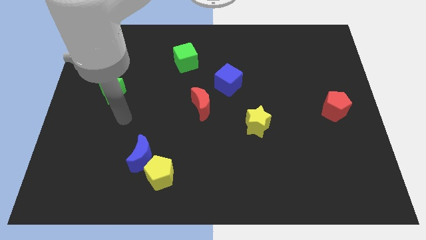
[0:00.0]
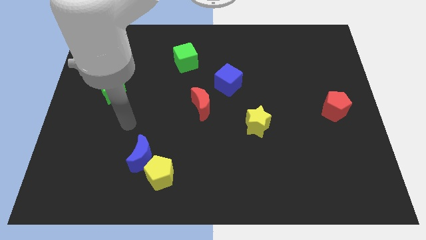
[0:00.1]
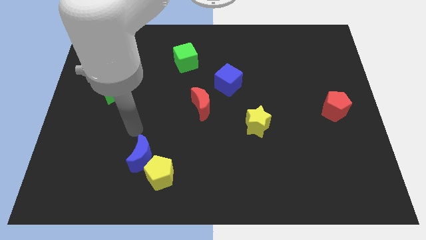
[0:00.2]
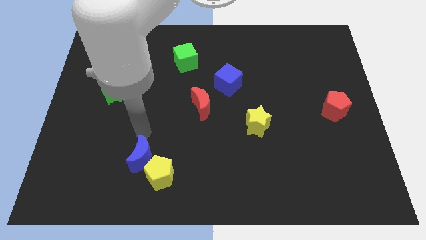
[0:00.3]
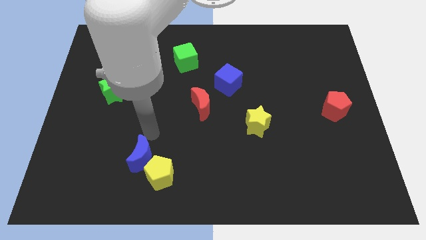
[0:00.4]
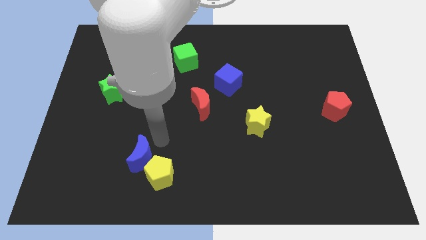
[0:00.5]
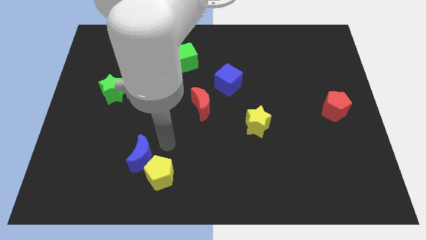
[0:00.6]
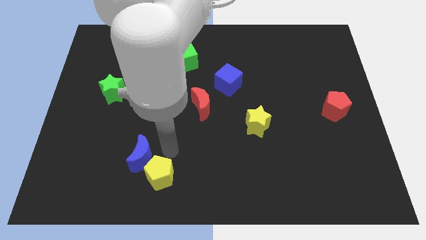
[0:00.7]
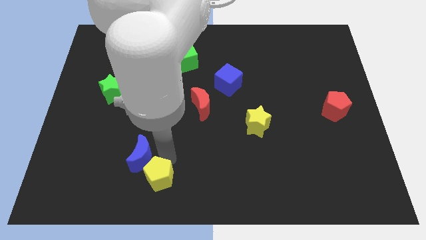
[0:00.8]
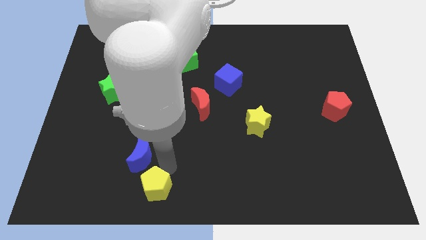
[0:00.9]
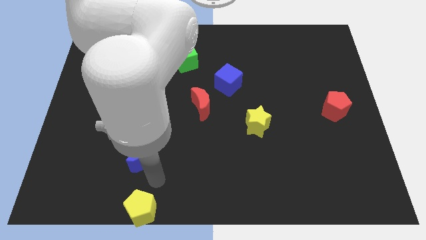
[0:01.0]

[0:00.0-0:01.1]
separate the blue moon from the yellow pentagon

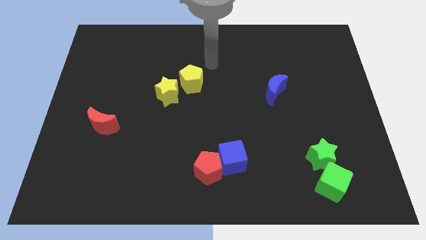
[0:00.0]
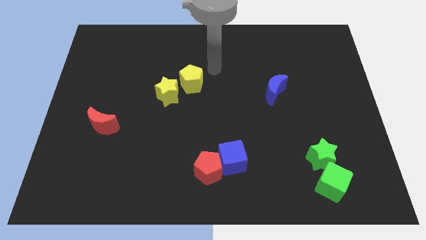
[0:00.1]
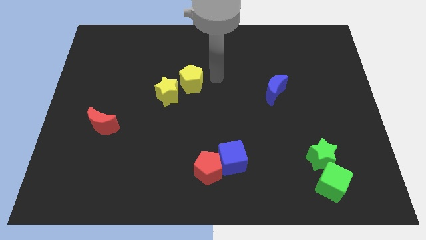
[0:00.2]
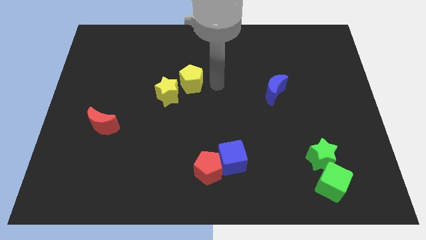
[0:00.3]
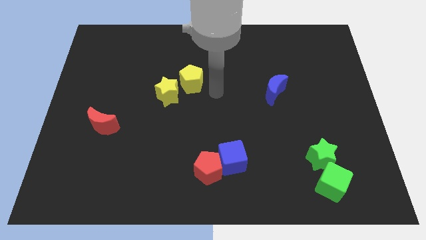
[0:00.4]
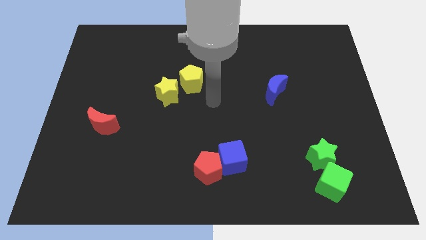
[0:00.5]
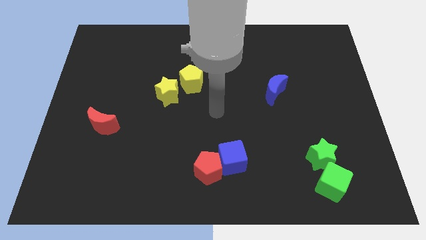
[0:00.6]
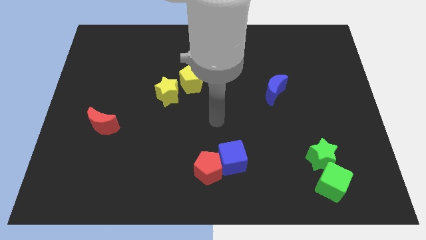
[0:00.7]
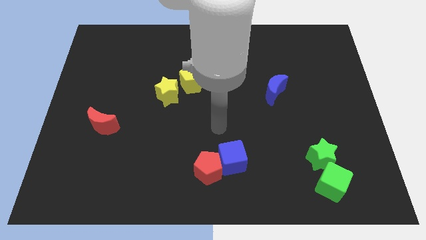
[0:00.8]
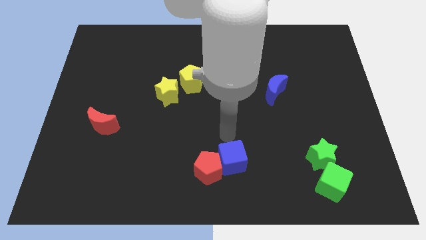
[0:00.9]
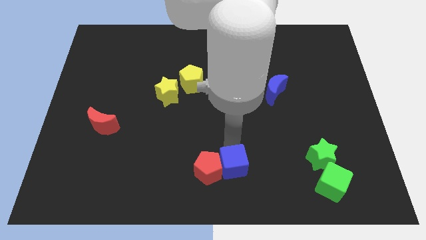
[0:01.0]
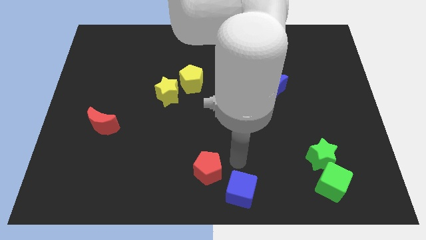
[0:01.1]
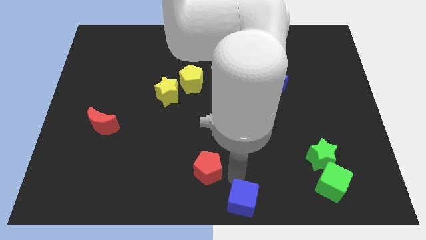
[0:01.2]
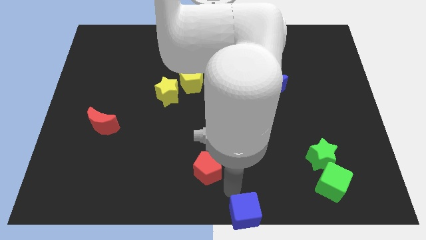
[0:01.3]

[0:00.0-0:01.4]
move the red pentagon away from the blue cube

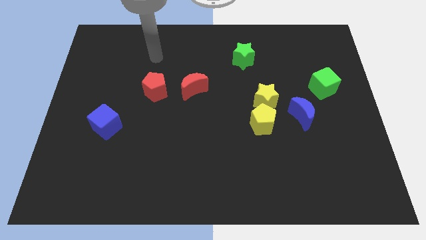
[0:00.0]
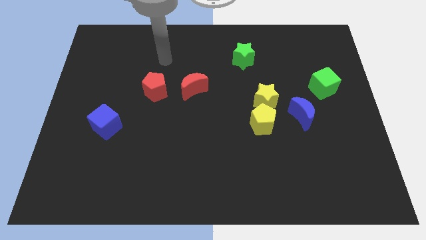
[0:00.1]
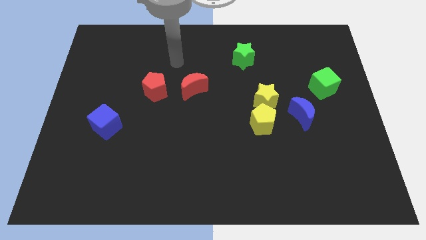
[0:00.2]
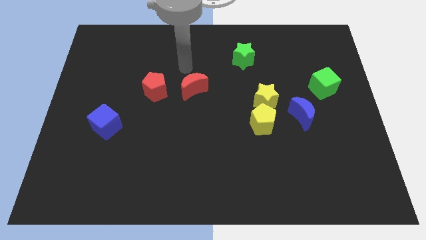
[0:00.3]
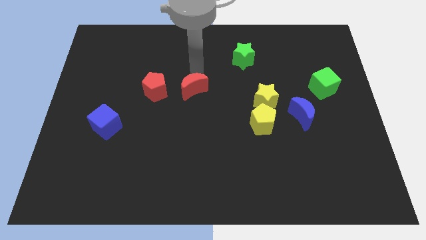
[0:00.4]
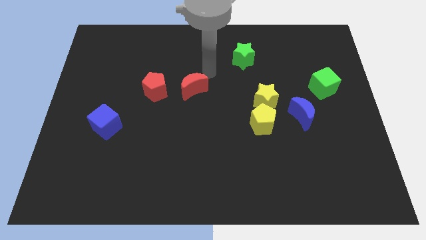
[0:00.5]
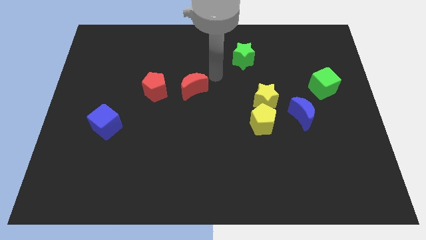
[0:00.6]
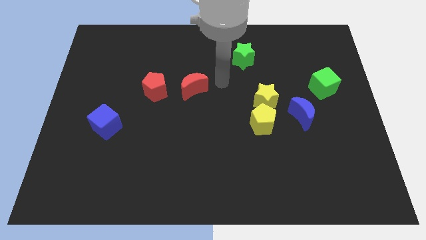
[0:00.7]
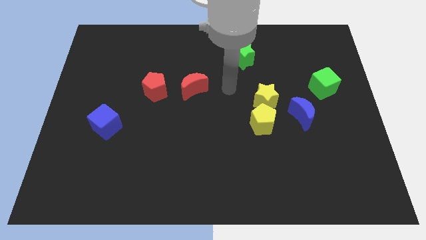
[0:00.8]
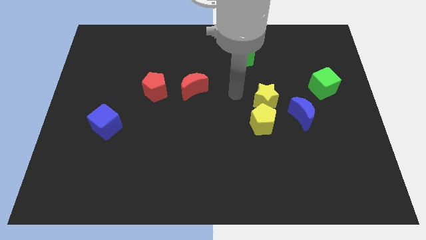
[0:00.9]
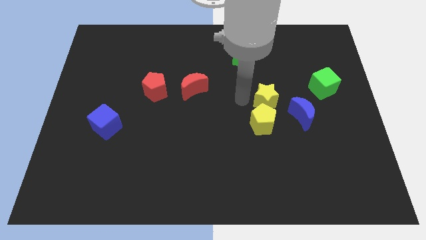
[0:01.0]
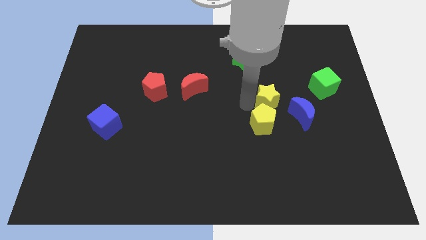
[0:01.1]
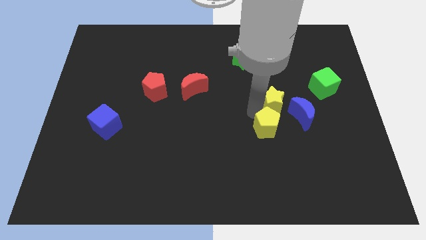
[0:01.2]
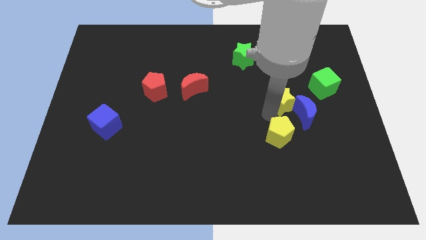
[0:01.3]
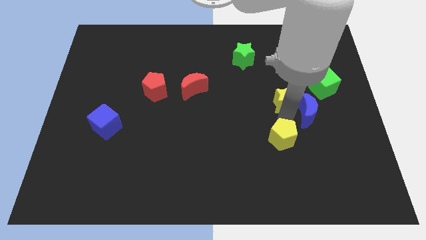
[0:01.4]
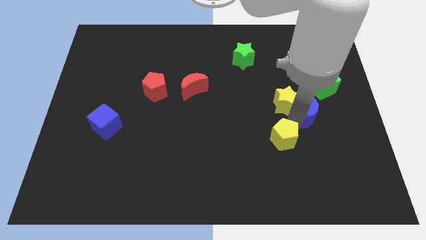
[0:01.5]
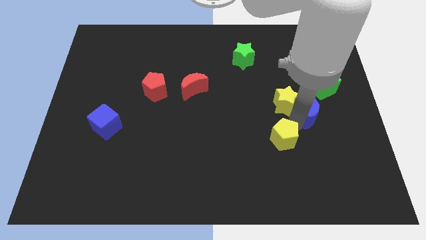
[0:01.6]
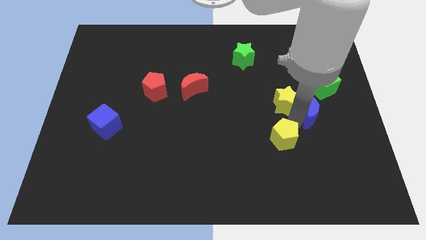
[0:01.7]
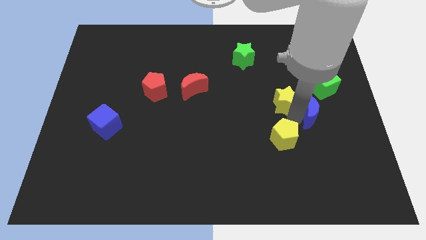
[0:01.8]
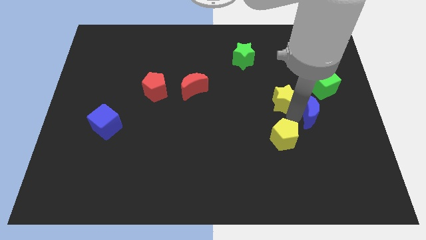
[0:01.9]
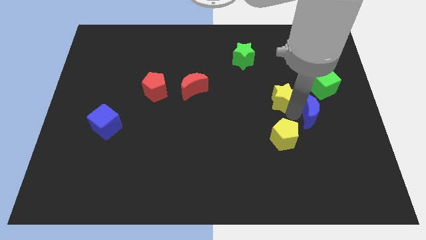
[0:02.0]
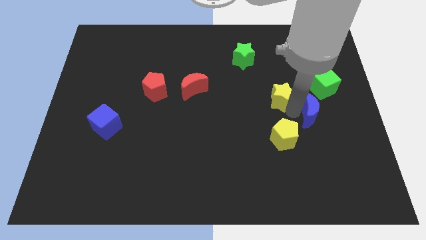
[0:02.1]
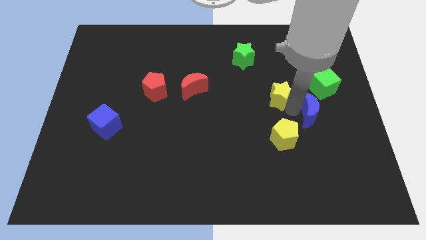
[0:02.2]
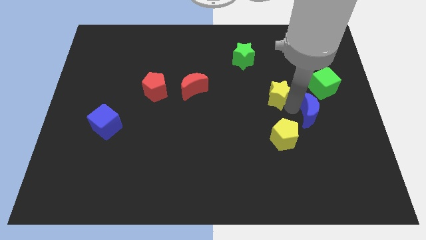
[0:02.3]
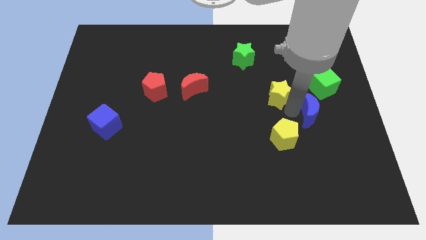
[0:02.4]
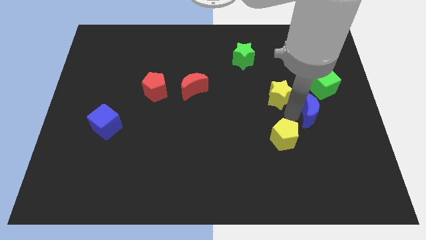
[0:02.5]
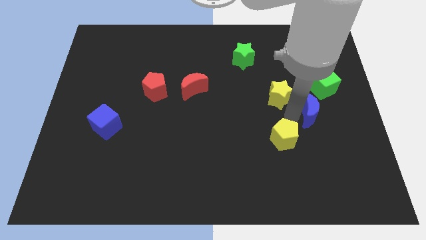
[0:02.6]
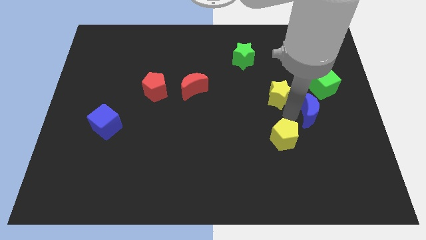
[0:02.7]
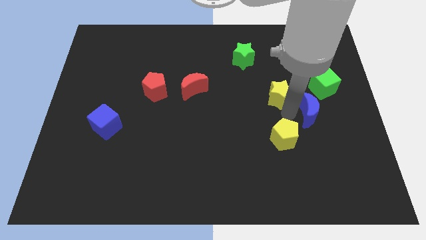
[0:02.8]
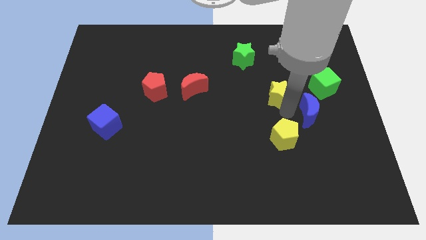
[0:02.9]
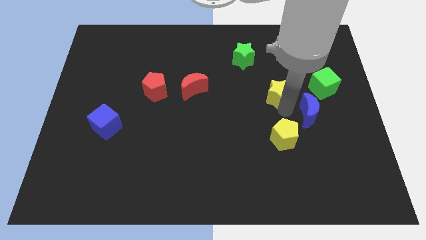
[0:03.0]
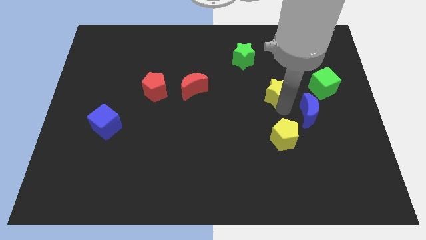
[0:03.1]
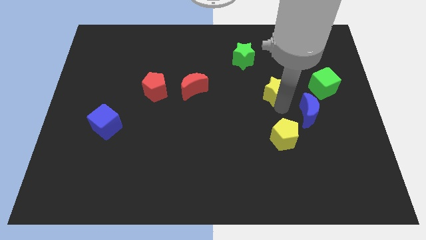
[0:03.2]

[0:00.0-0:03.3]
move the yellow star away from the yellow pentagon and blue moon

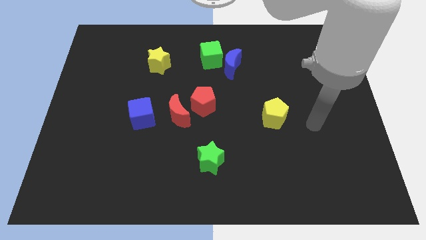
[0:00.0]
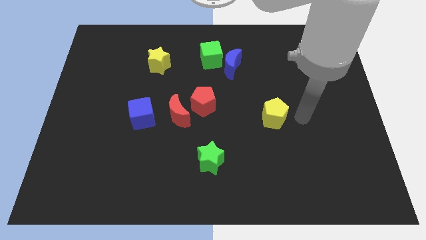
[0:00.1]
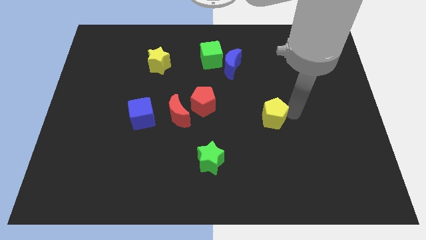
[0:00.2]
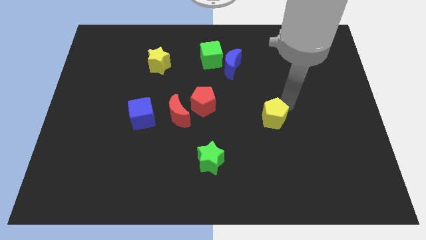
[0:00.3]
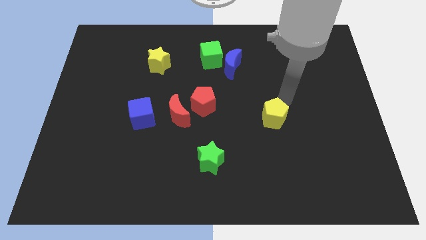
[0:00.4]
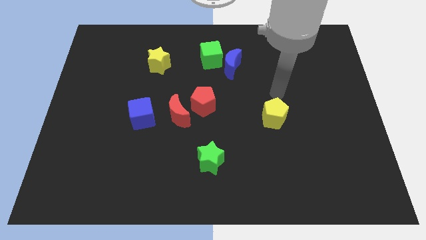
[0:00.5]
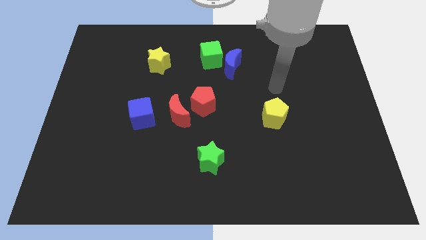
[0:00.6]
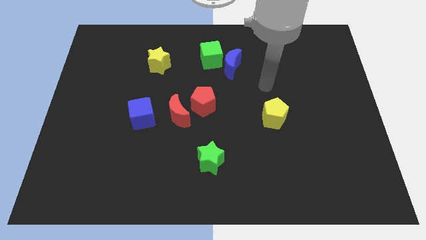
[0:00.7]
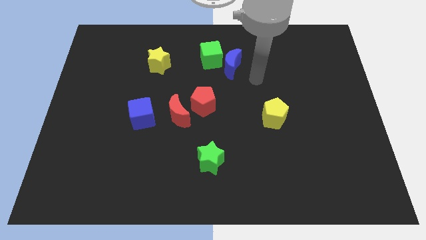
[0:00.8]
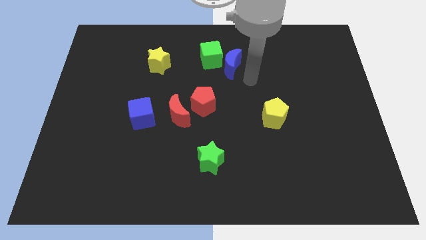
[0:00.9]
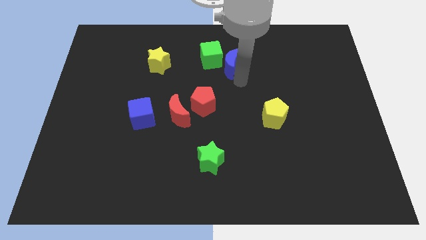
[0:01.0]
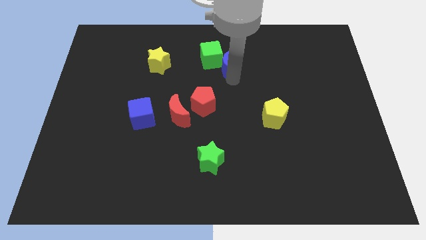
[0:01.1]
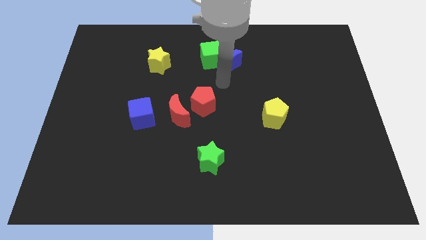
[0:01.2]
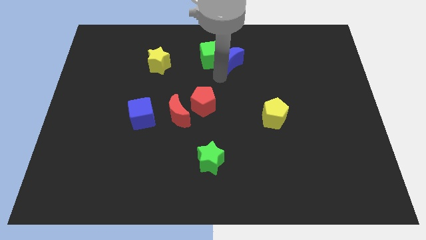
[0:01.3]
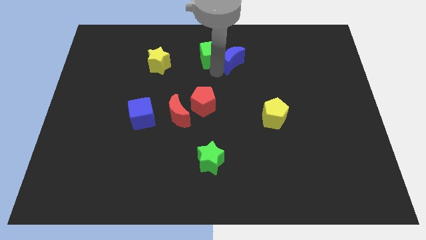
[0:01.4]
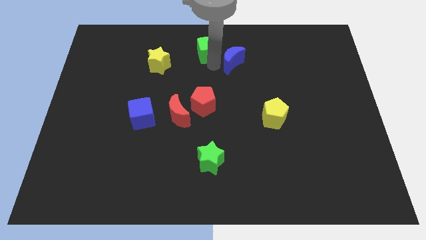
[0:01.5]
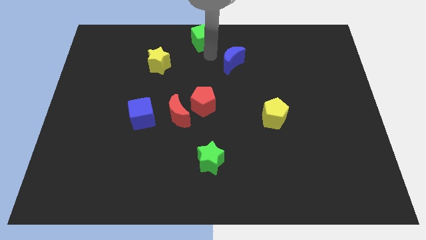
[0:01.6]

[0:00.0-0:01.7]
move the blue moon away from the green cube

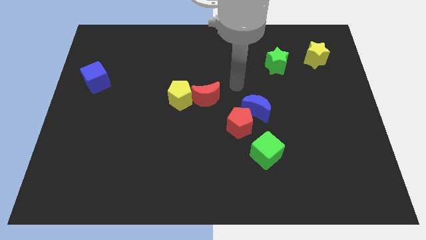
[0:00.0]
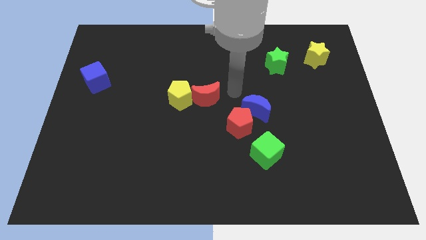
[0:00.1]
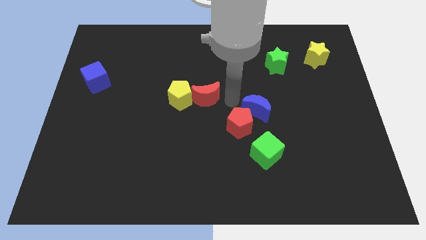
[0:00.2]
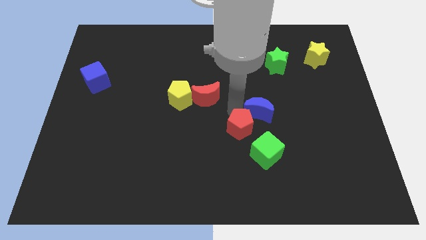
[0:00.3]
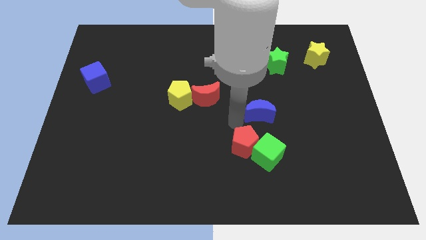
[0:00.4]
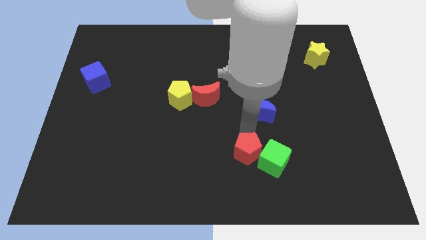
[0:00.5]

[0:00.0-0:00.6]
separate the blue moon from the red pentagon

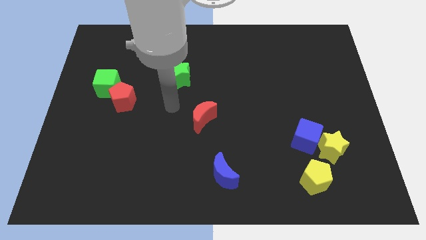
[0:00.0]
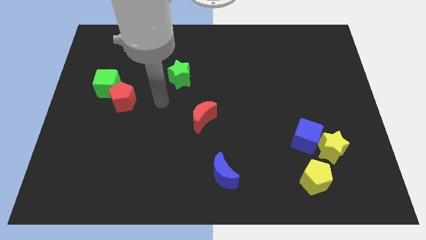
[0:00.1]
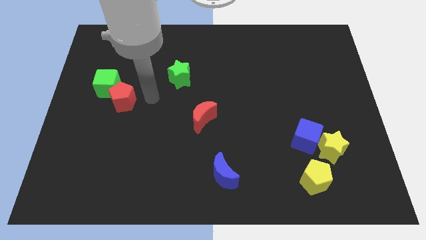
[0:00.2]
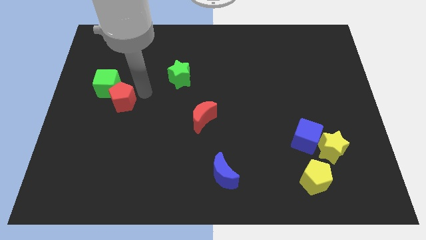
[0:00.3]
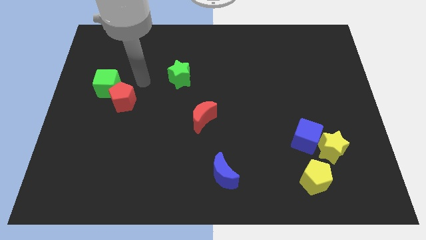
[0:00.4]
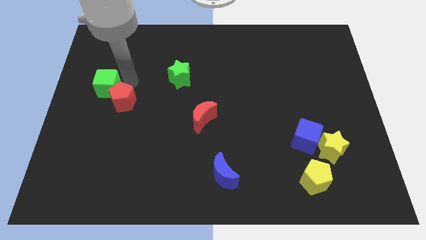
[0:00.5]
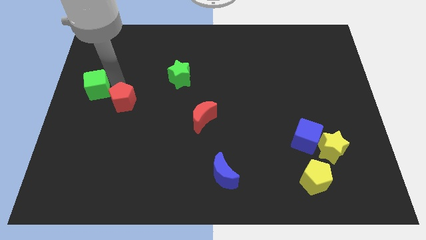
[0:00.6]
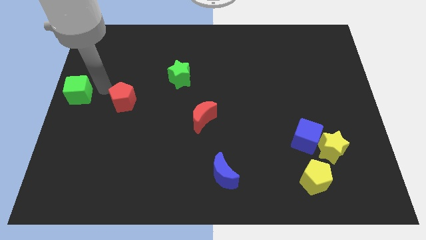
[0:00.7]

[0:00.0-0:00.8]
separate the red pentagon from the green cube

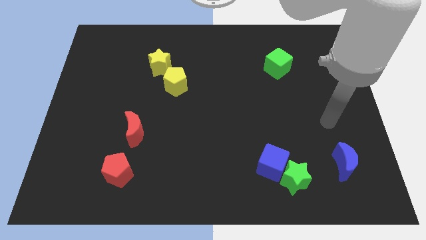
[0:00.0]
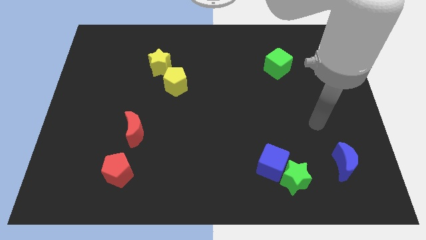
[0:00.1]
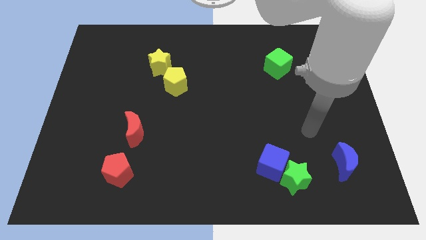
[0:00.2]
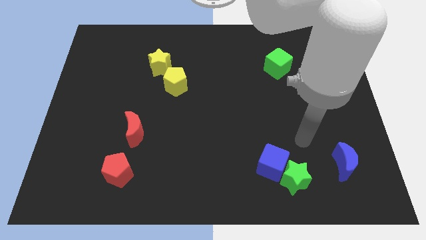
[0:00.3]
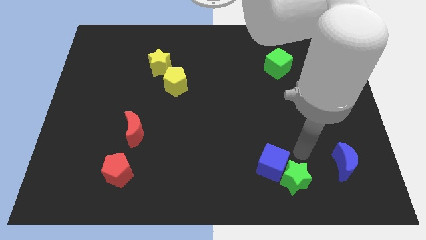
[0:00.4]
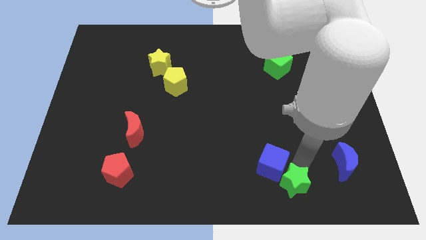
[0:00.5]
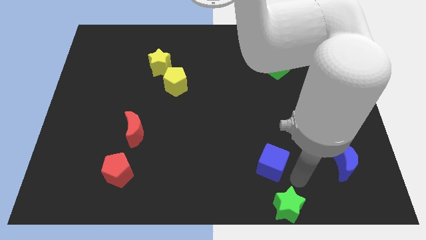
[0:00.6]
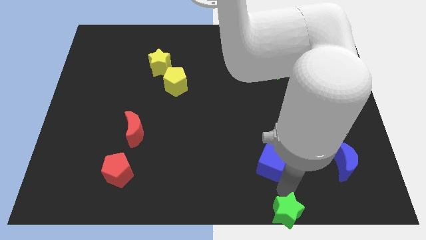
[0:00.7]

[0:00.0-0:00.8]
separate the blue cube from the green star
